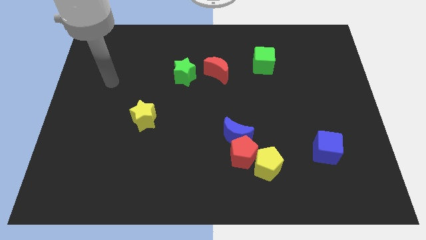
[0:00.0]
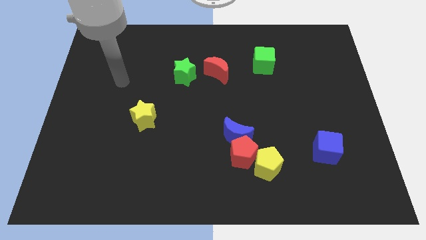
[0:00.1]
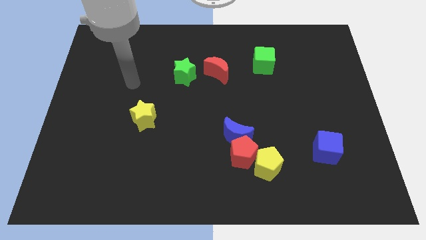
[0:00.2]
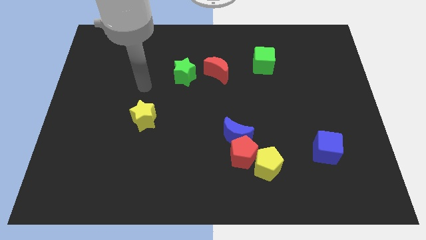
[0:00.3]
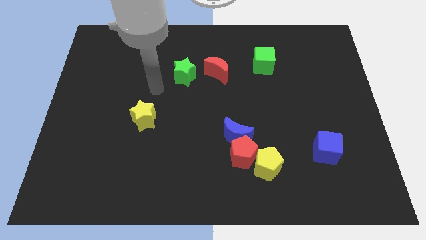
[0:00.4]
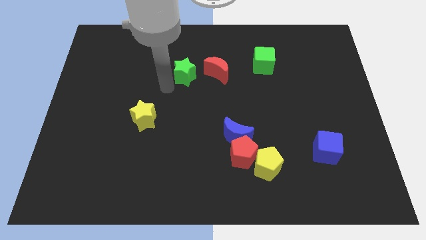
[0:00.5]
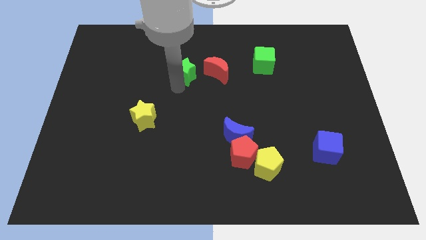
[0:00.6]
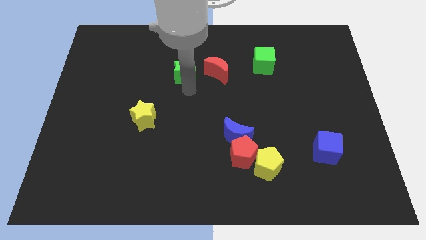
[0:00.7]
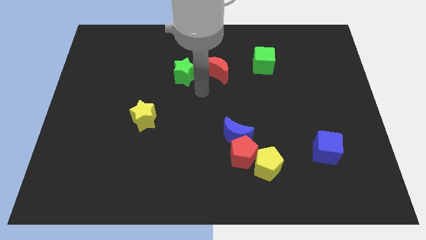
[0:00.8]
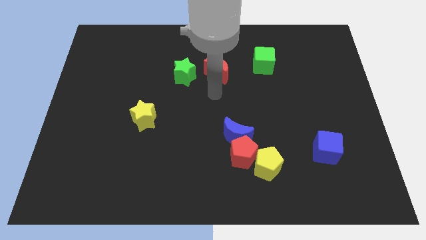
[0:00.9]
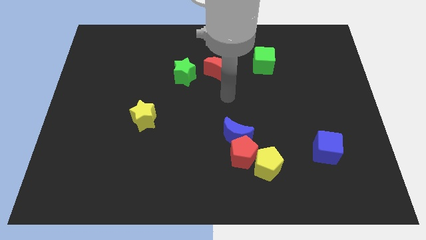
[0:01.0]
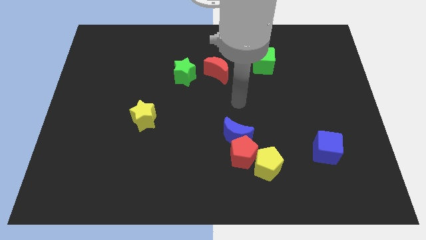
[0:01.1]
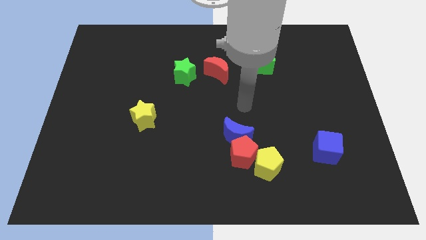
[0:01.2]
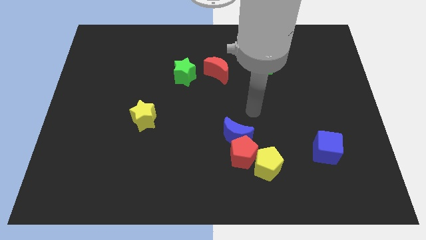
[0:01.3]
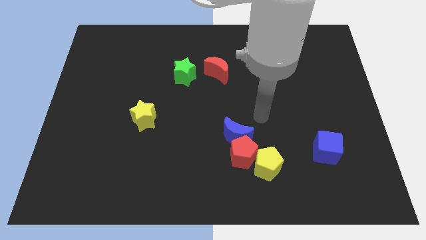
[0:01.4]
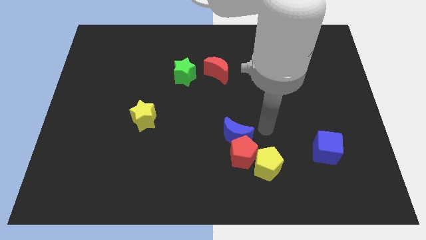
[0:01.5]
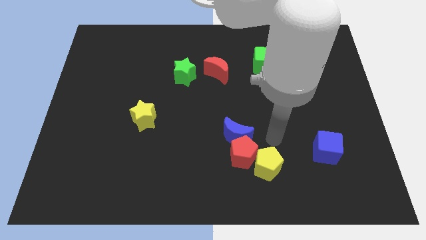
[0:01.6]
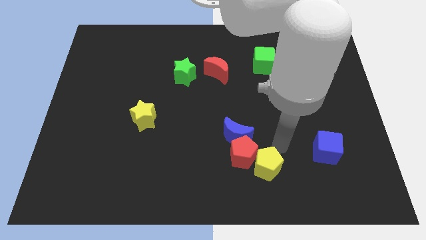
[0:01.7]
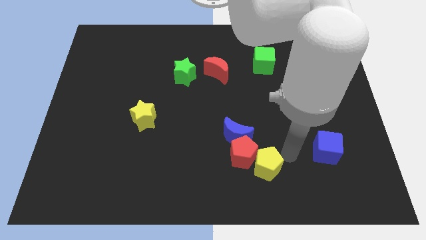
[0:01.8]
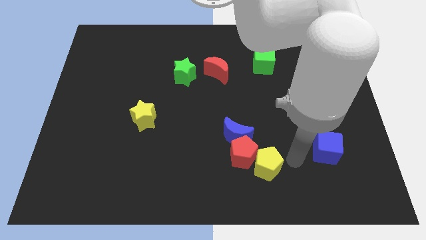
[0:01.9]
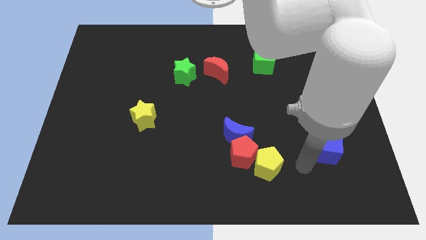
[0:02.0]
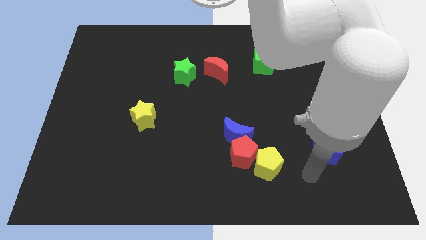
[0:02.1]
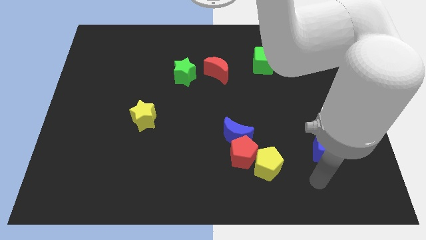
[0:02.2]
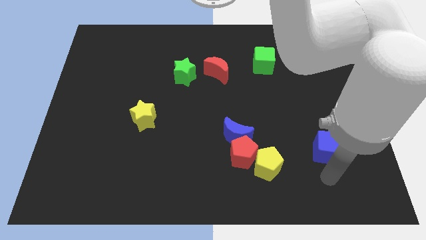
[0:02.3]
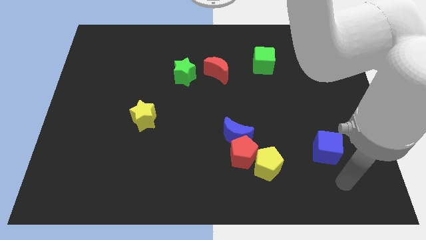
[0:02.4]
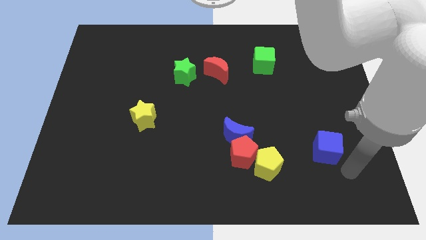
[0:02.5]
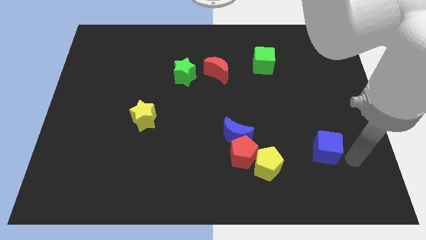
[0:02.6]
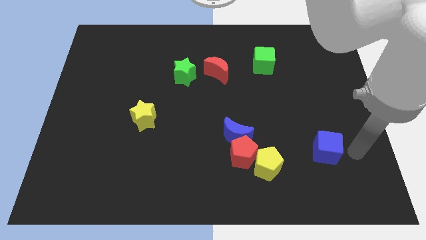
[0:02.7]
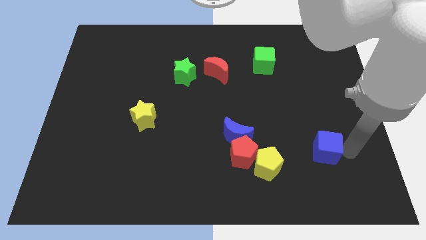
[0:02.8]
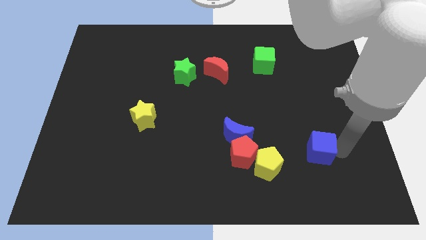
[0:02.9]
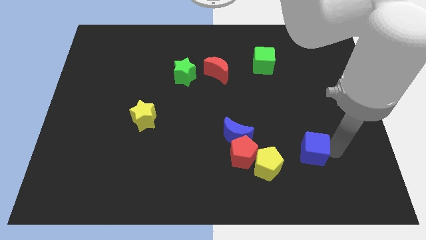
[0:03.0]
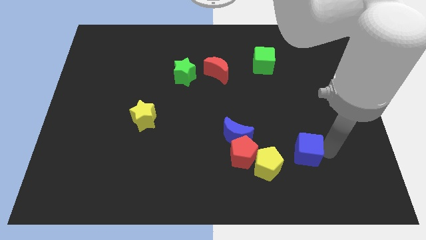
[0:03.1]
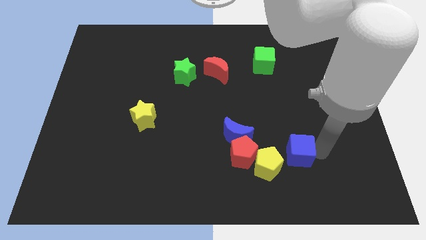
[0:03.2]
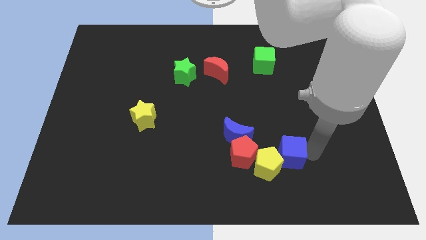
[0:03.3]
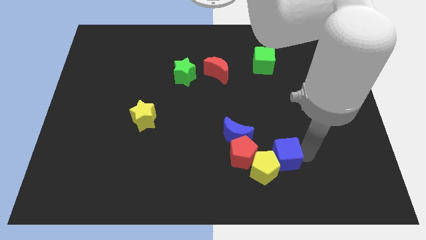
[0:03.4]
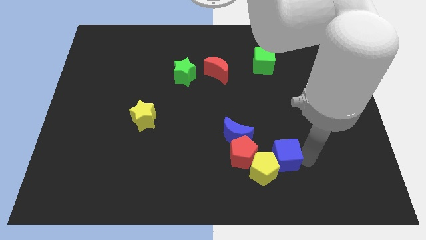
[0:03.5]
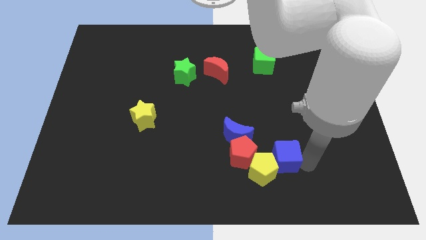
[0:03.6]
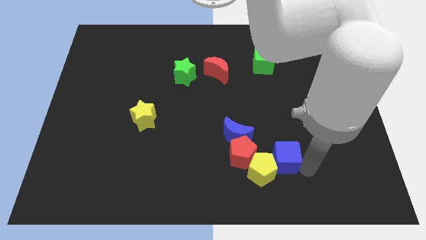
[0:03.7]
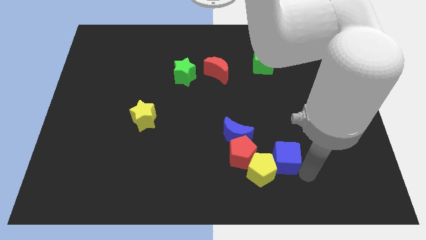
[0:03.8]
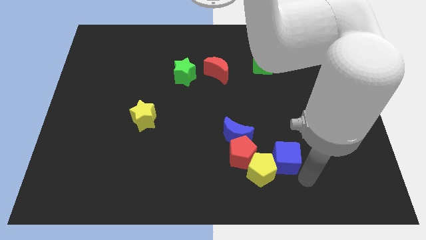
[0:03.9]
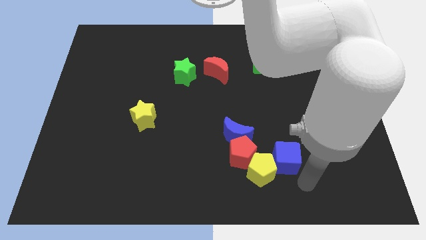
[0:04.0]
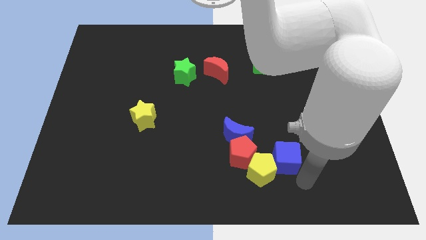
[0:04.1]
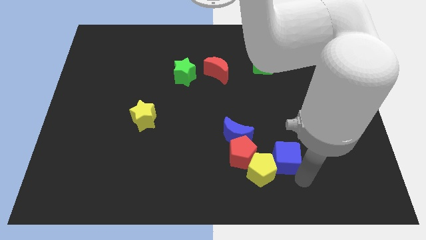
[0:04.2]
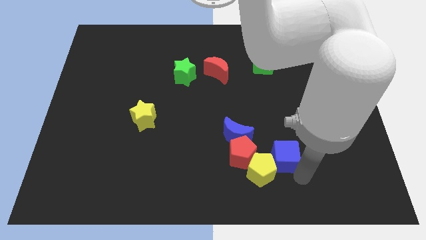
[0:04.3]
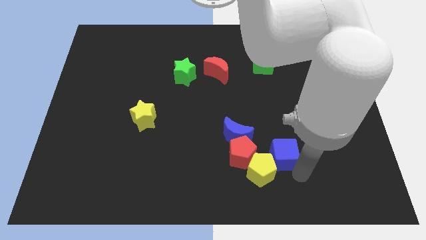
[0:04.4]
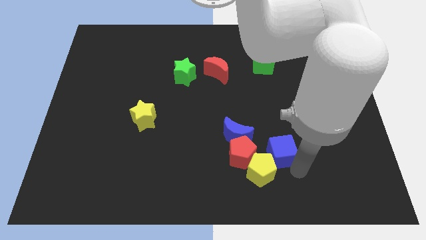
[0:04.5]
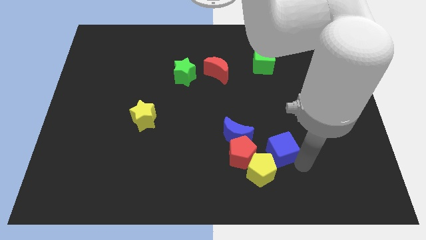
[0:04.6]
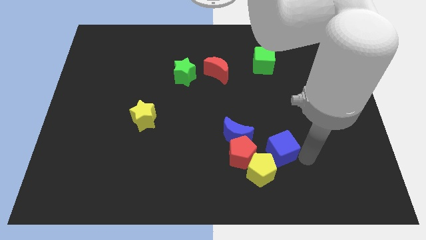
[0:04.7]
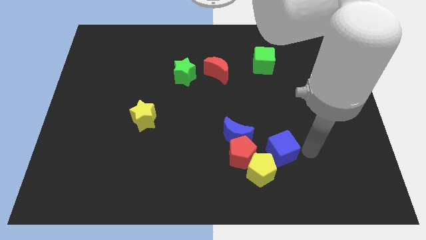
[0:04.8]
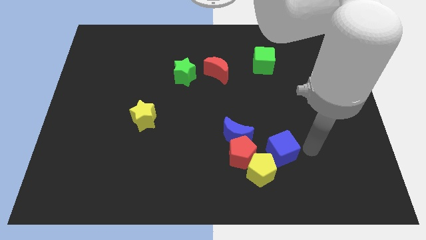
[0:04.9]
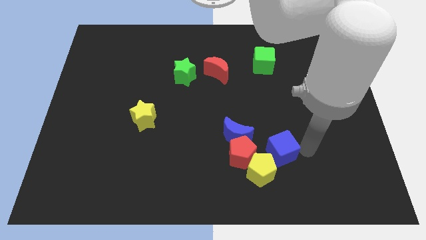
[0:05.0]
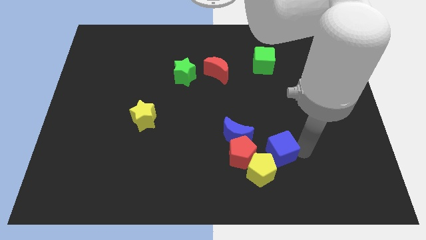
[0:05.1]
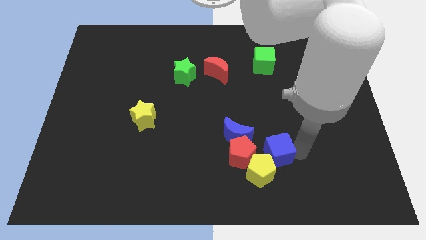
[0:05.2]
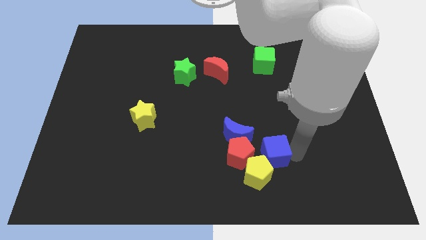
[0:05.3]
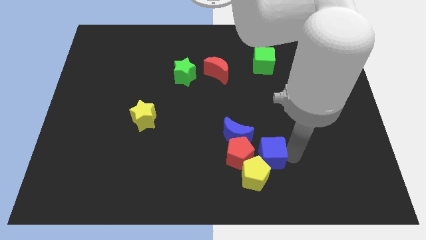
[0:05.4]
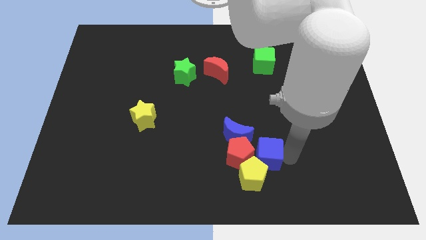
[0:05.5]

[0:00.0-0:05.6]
slide the blue cube close to the red pentagon
